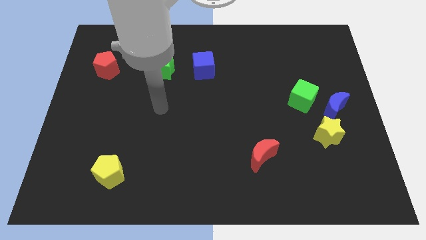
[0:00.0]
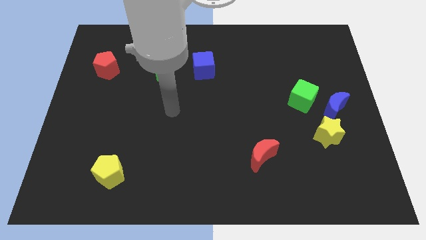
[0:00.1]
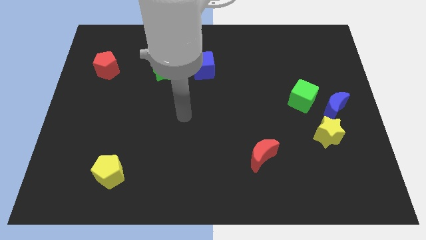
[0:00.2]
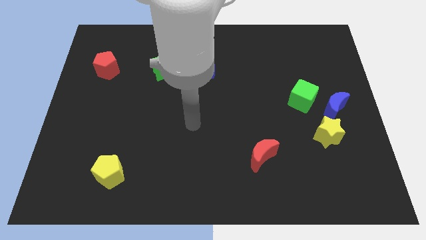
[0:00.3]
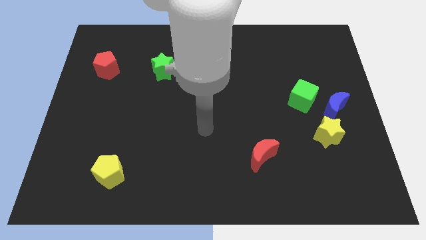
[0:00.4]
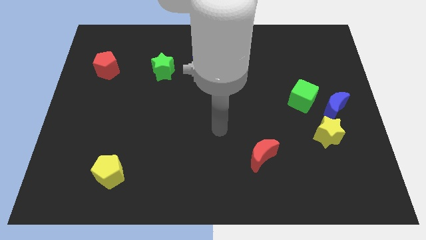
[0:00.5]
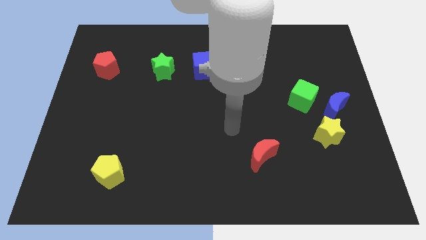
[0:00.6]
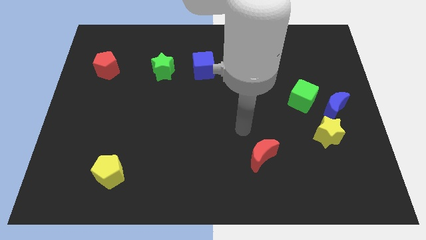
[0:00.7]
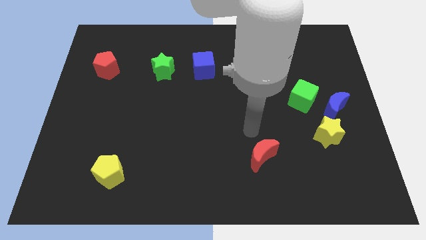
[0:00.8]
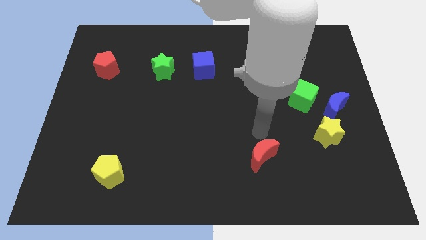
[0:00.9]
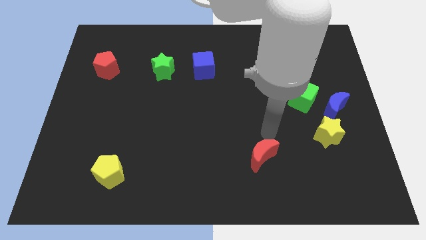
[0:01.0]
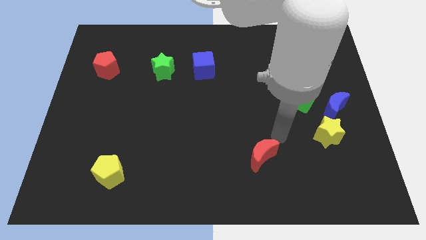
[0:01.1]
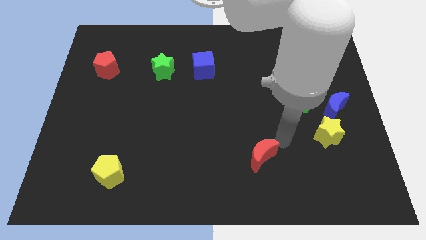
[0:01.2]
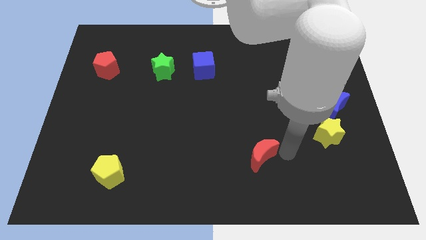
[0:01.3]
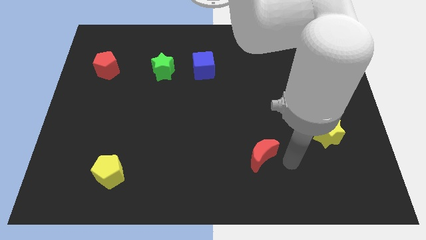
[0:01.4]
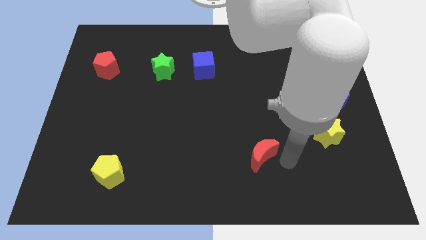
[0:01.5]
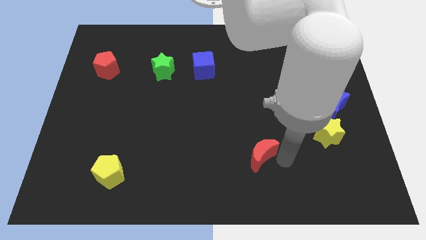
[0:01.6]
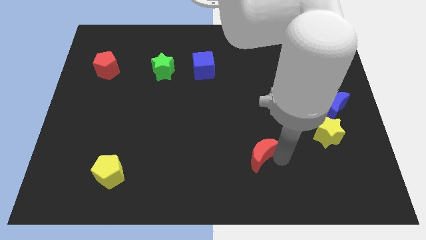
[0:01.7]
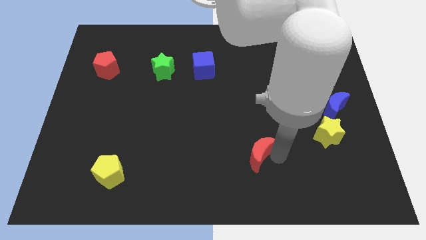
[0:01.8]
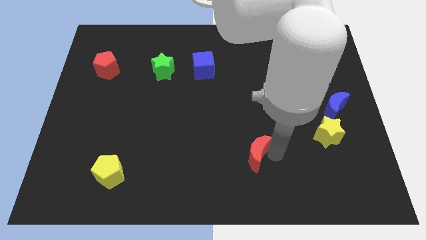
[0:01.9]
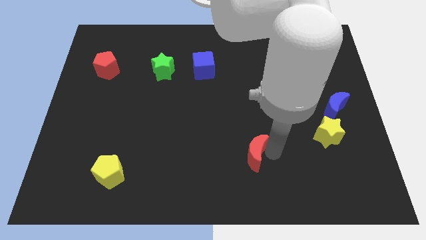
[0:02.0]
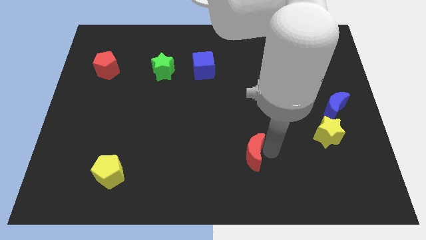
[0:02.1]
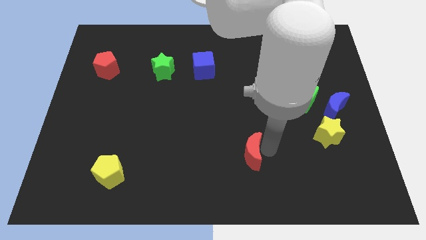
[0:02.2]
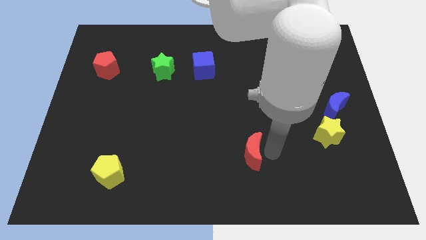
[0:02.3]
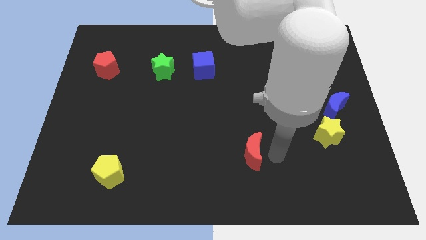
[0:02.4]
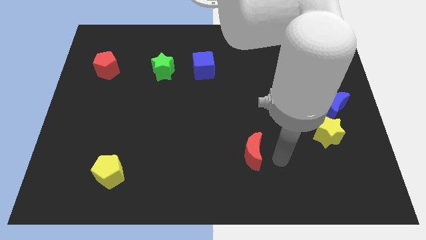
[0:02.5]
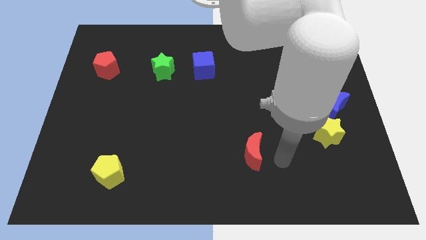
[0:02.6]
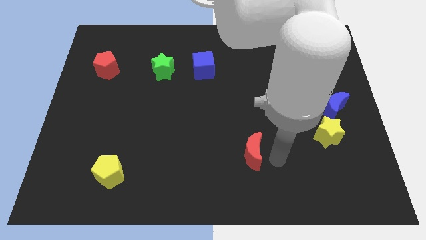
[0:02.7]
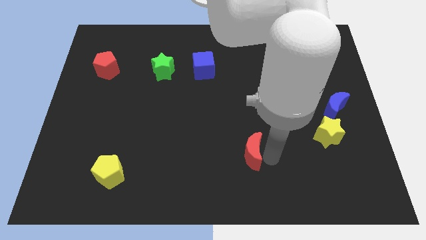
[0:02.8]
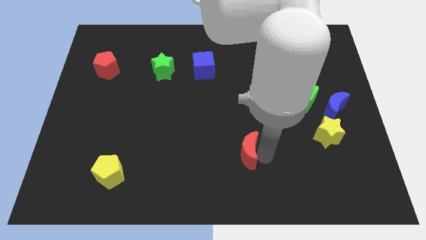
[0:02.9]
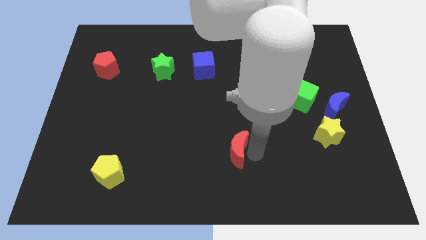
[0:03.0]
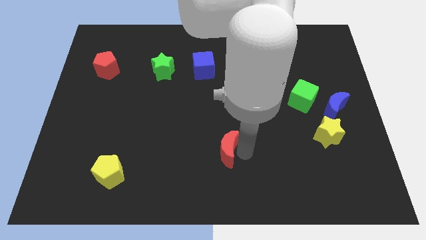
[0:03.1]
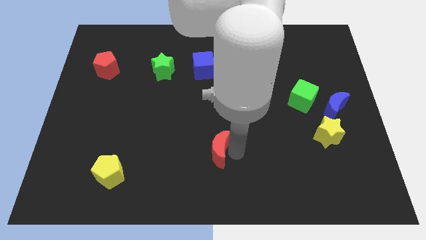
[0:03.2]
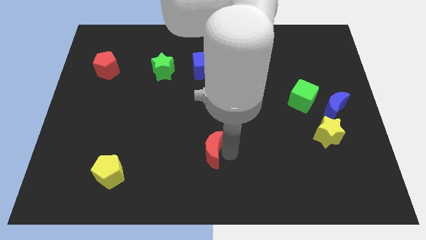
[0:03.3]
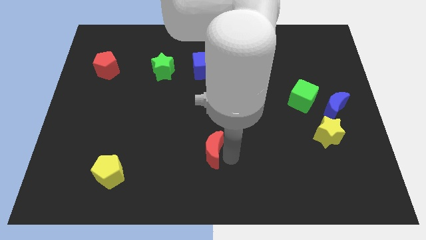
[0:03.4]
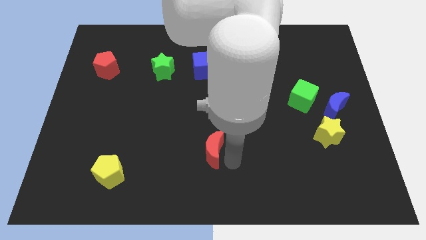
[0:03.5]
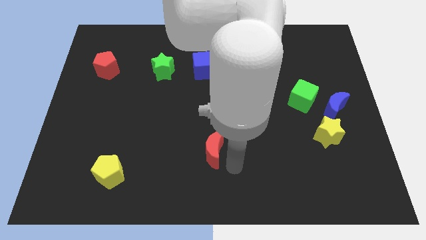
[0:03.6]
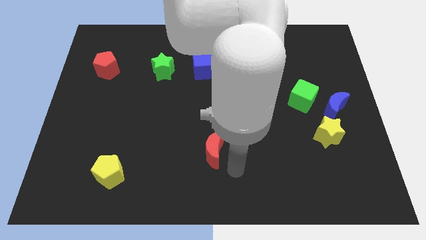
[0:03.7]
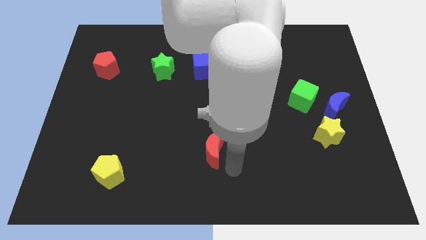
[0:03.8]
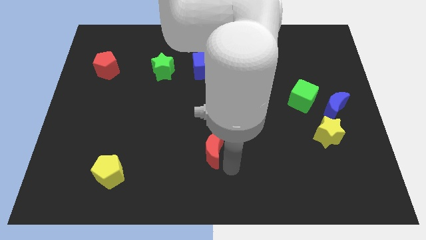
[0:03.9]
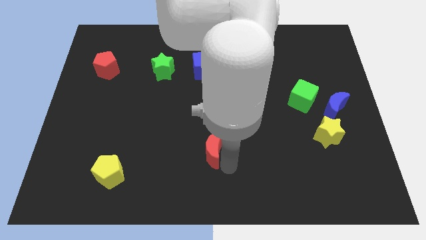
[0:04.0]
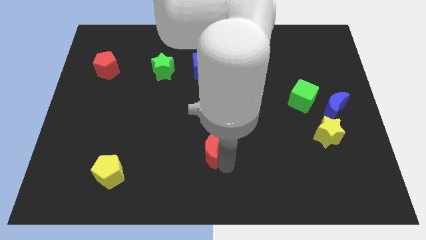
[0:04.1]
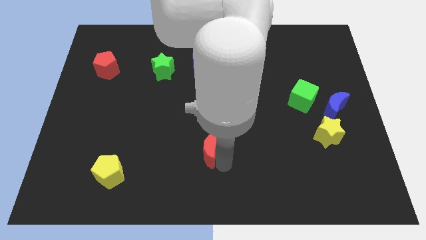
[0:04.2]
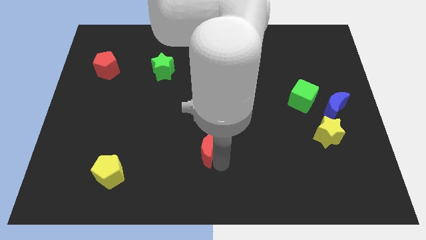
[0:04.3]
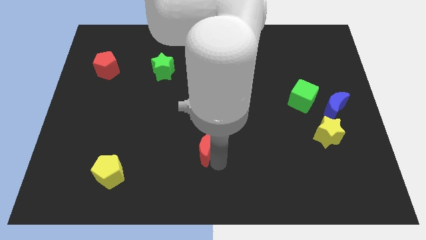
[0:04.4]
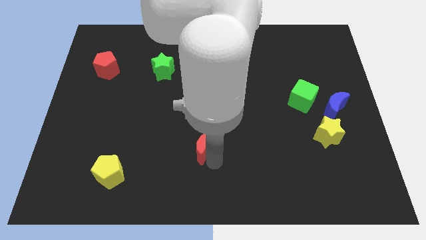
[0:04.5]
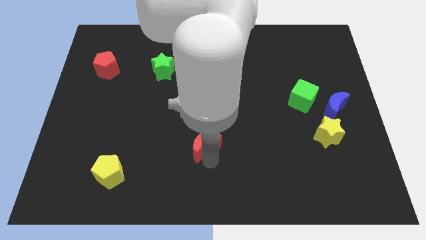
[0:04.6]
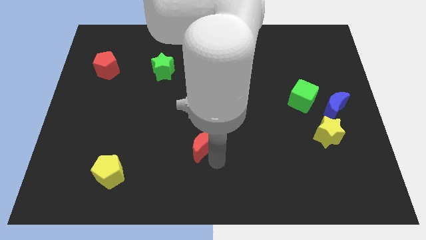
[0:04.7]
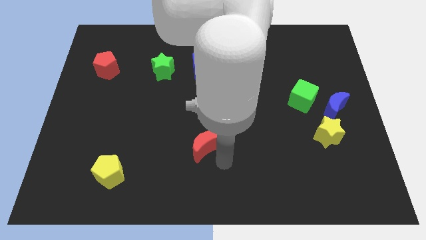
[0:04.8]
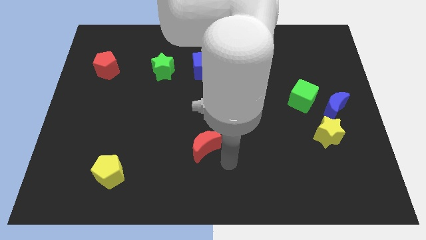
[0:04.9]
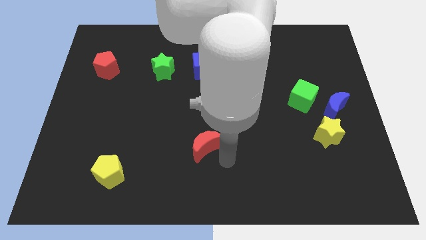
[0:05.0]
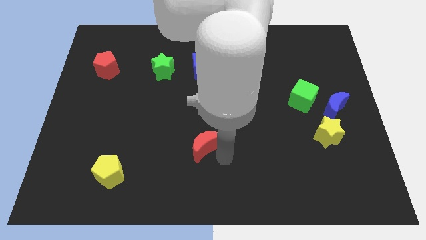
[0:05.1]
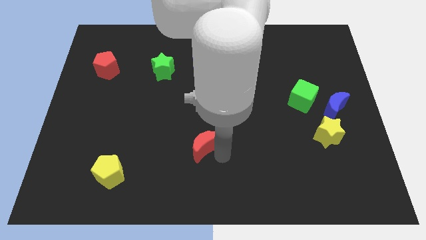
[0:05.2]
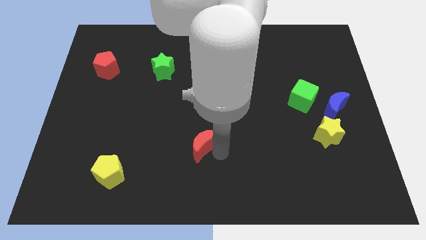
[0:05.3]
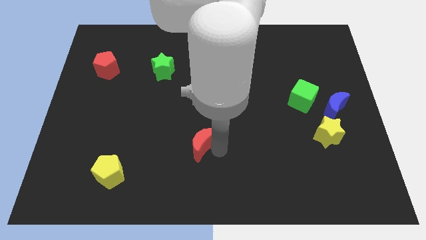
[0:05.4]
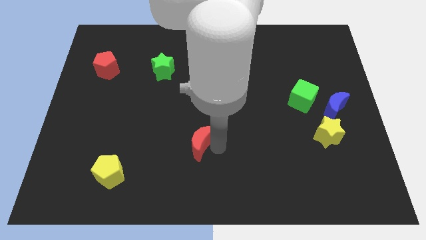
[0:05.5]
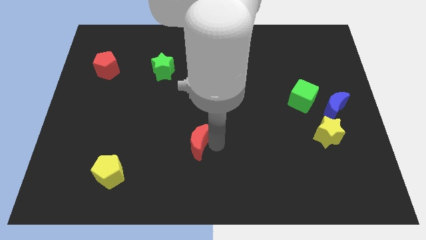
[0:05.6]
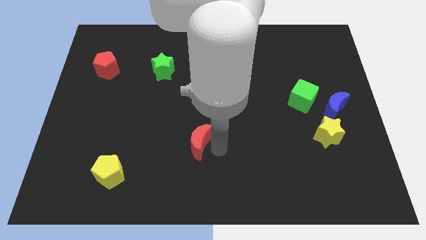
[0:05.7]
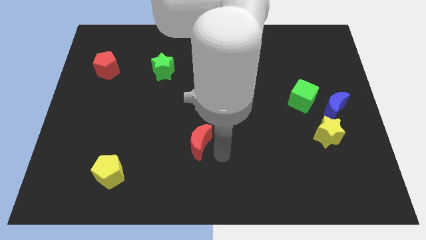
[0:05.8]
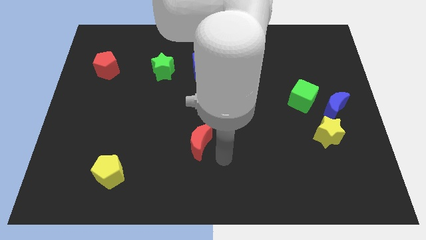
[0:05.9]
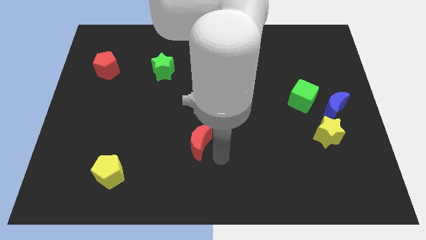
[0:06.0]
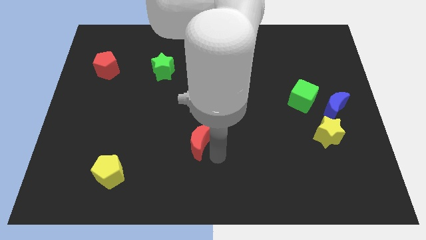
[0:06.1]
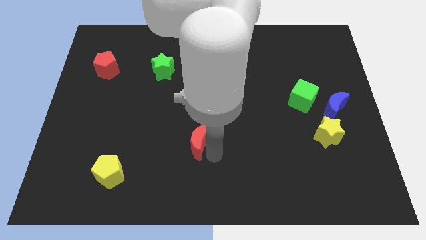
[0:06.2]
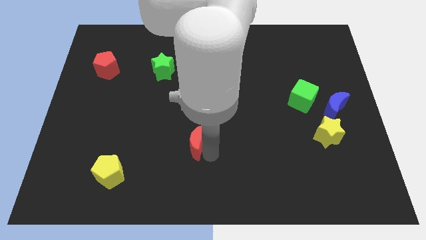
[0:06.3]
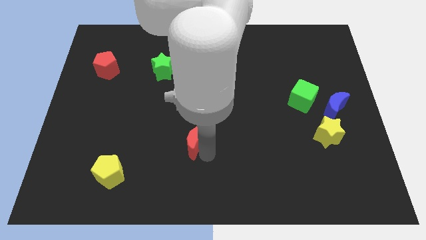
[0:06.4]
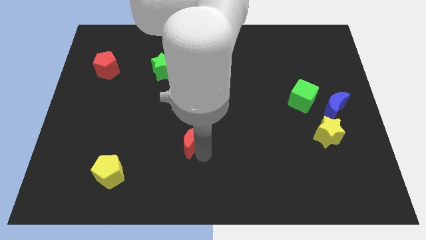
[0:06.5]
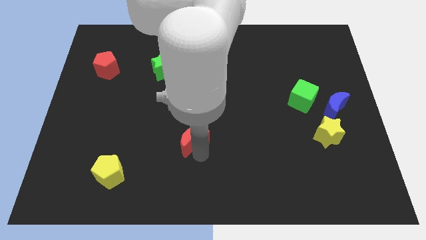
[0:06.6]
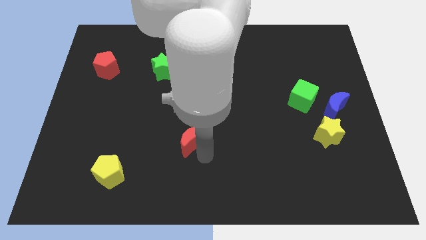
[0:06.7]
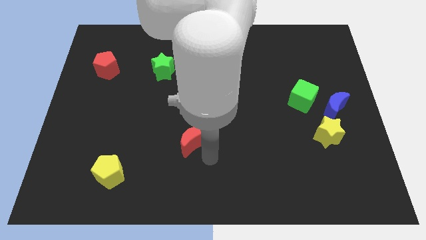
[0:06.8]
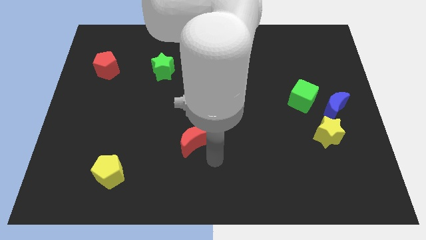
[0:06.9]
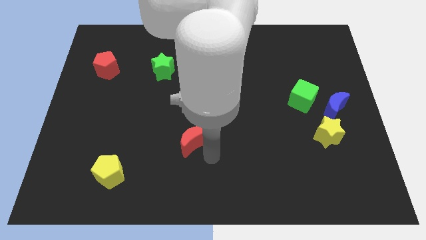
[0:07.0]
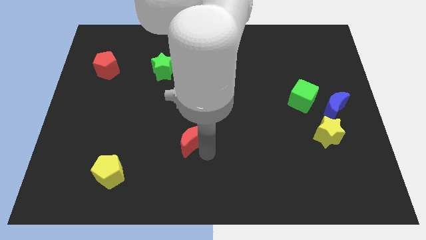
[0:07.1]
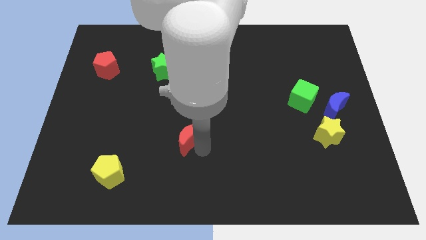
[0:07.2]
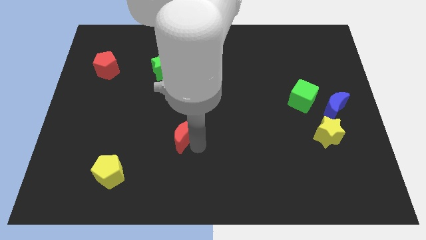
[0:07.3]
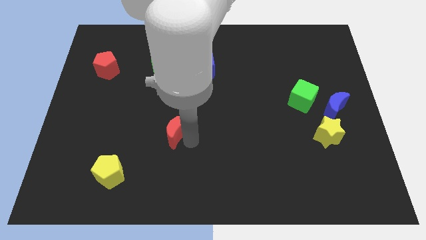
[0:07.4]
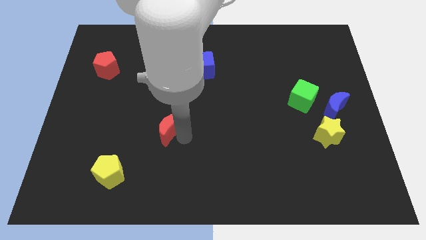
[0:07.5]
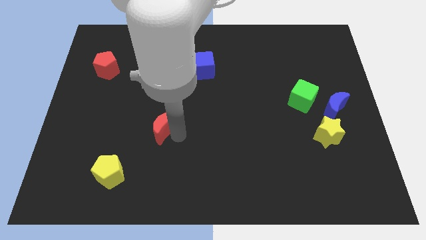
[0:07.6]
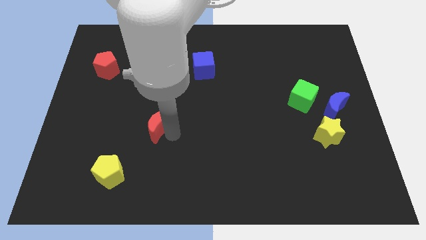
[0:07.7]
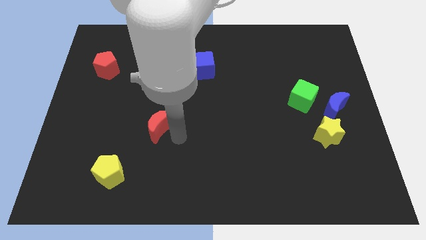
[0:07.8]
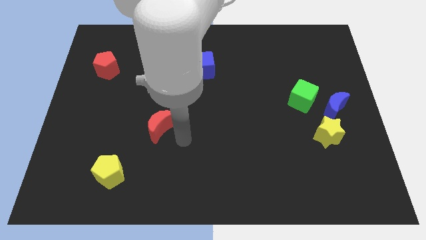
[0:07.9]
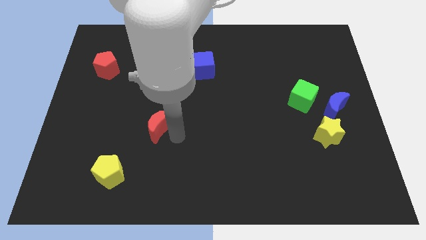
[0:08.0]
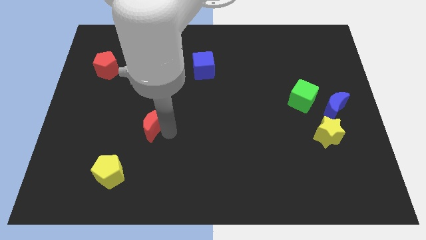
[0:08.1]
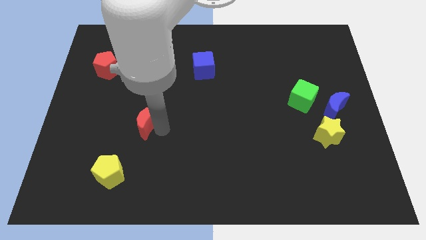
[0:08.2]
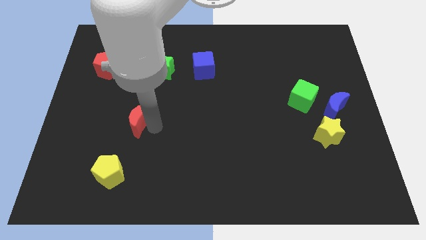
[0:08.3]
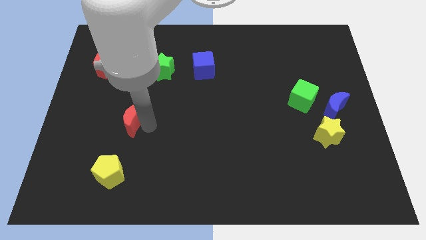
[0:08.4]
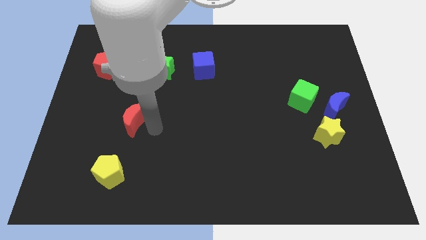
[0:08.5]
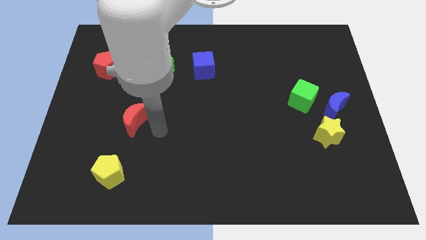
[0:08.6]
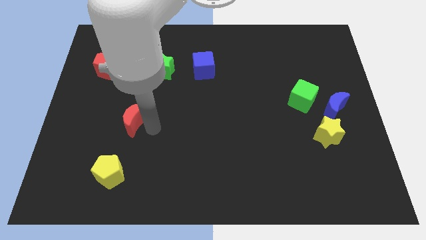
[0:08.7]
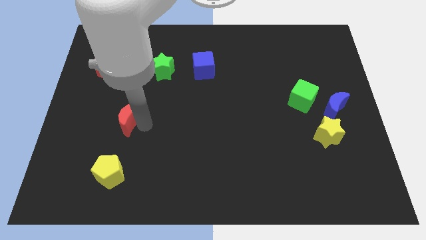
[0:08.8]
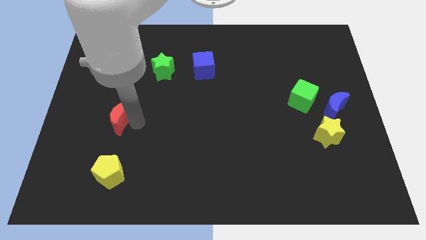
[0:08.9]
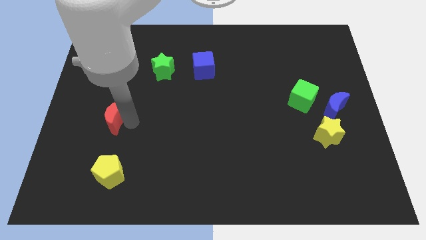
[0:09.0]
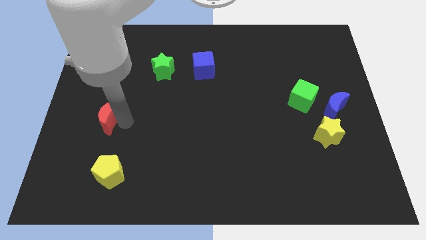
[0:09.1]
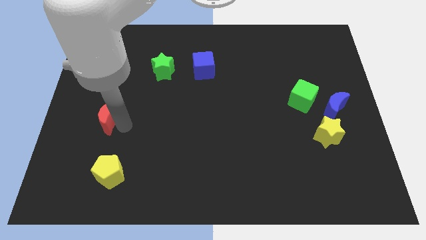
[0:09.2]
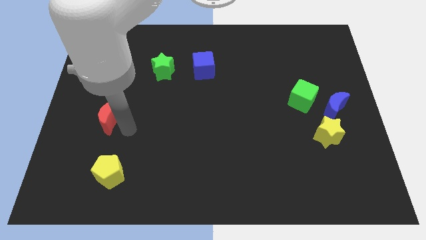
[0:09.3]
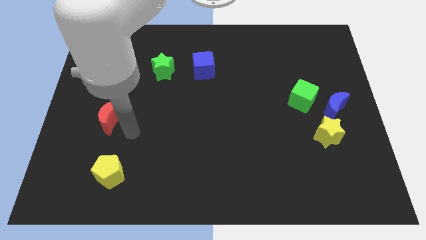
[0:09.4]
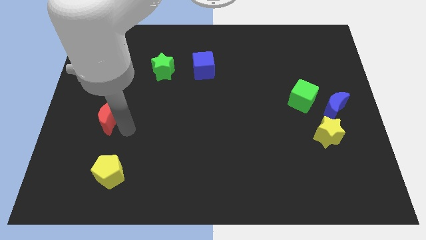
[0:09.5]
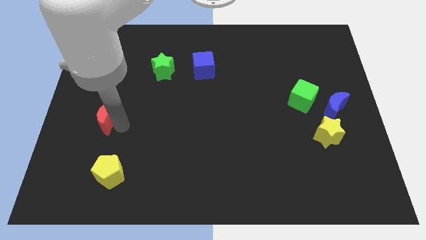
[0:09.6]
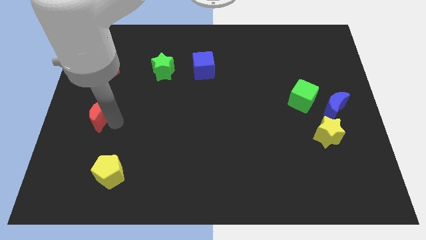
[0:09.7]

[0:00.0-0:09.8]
slide the red moon to the center left
